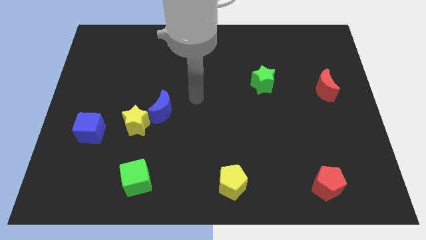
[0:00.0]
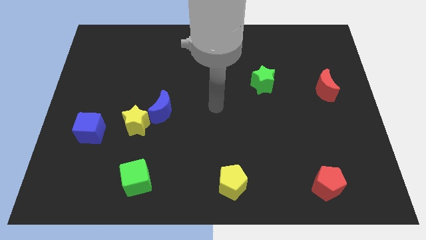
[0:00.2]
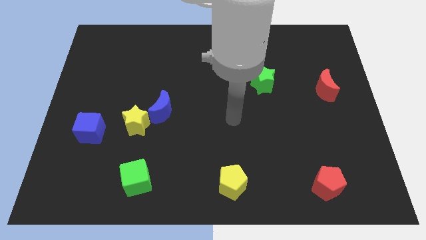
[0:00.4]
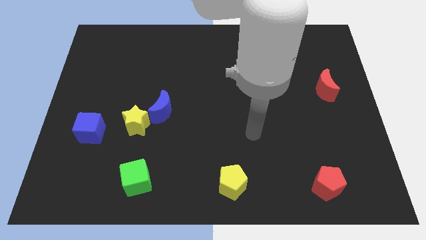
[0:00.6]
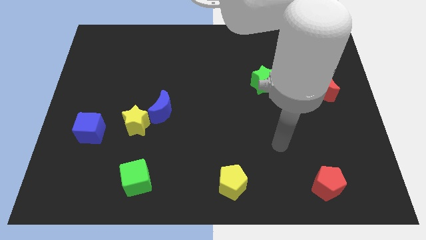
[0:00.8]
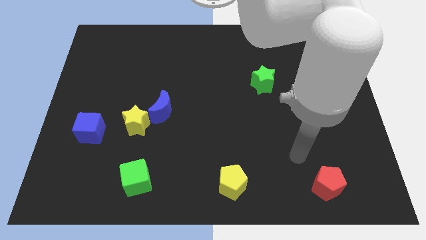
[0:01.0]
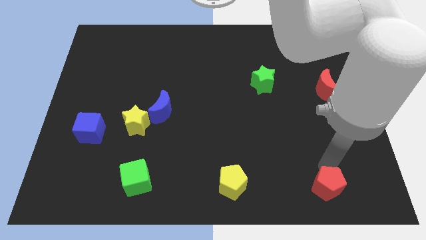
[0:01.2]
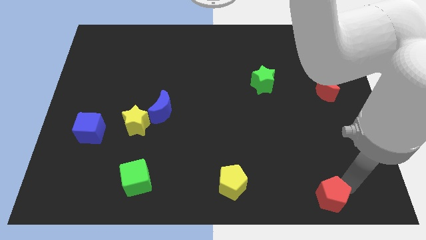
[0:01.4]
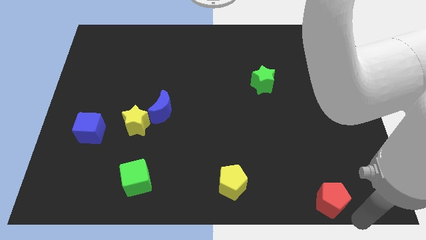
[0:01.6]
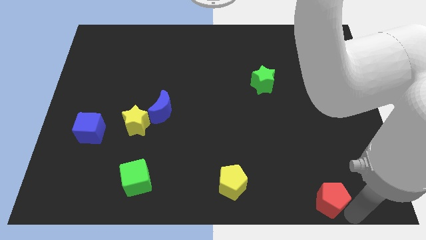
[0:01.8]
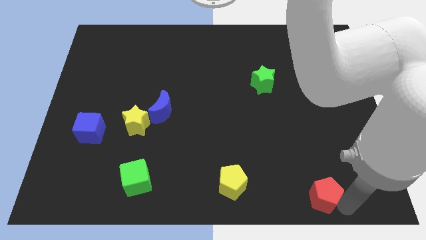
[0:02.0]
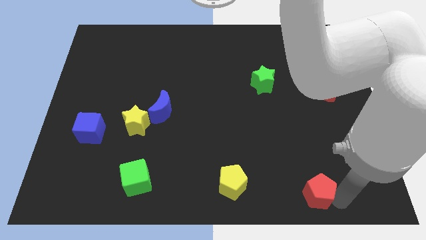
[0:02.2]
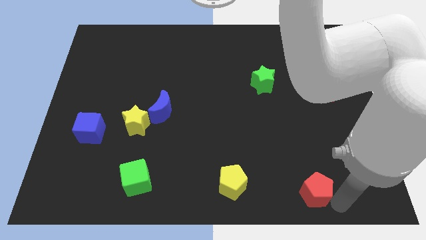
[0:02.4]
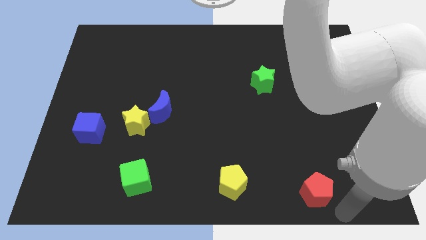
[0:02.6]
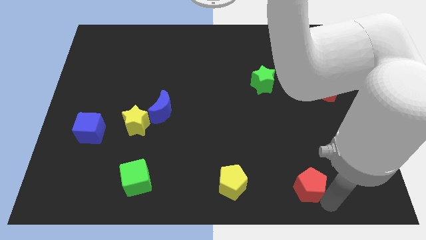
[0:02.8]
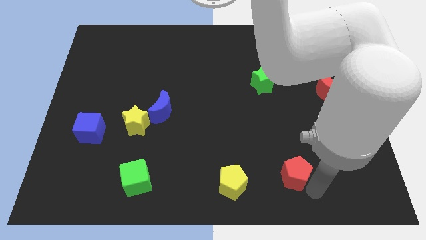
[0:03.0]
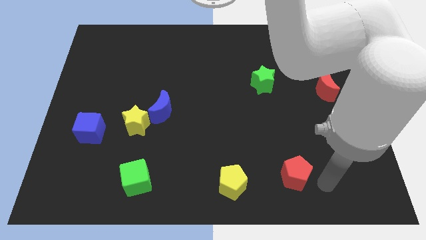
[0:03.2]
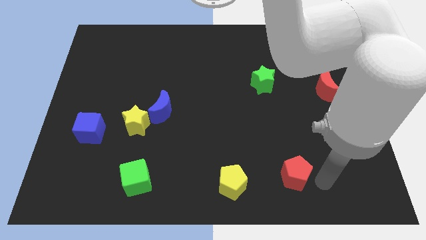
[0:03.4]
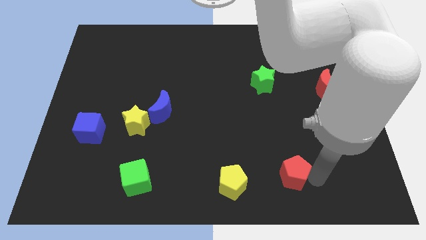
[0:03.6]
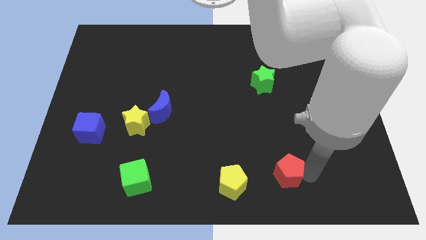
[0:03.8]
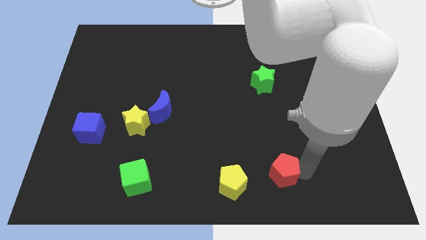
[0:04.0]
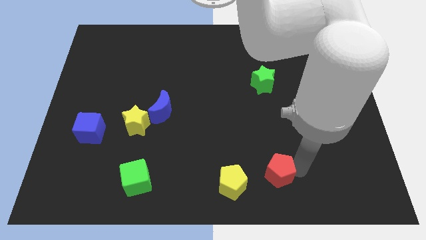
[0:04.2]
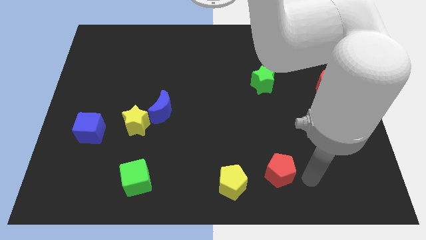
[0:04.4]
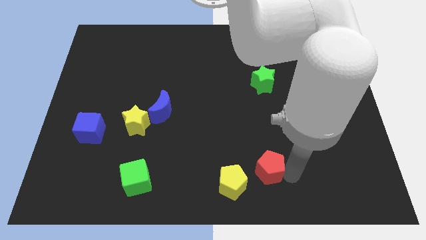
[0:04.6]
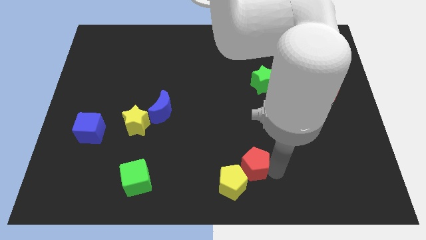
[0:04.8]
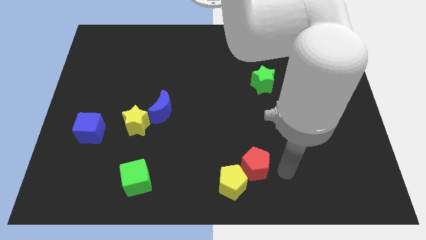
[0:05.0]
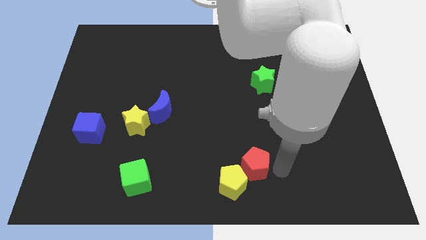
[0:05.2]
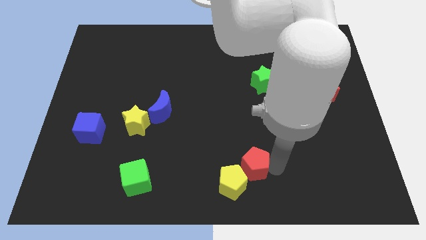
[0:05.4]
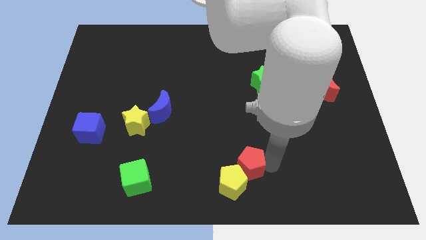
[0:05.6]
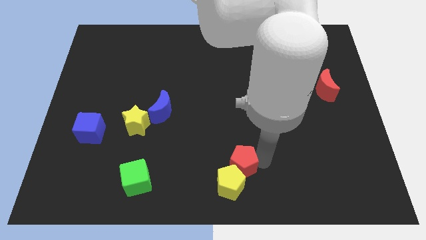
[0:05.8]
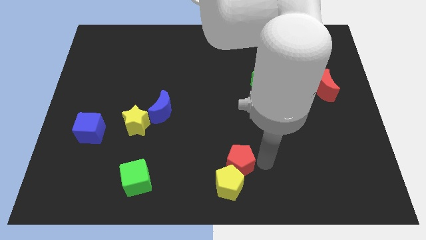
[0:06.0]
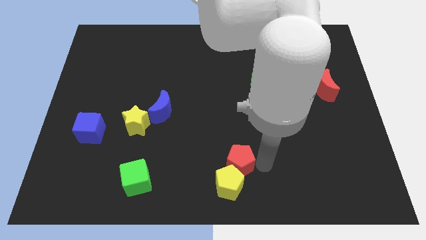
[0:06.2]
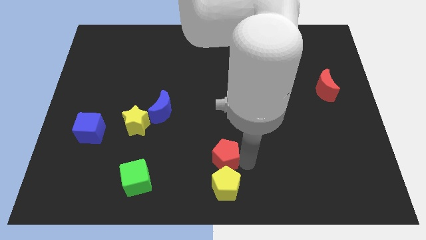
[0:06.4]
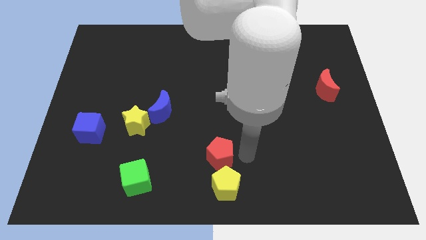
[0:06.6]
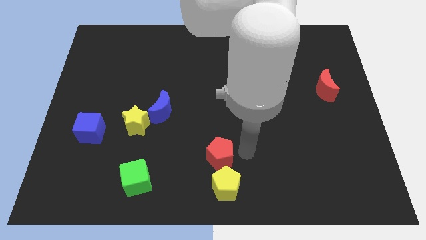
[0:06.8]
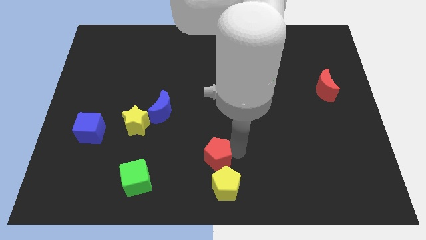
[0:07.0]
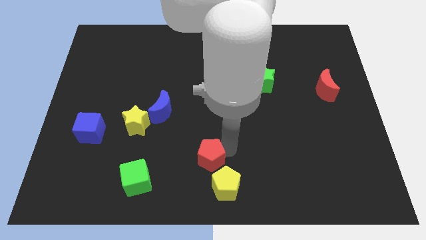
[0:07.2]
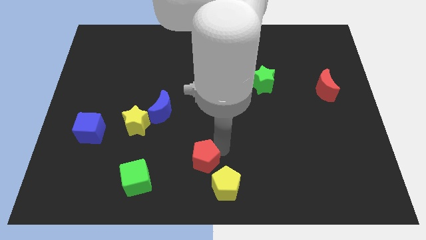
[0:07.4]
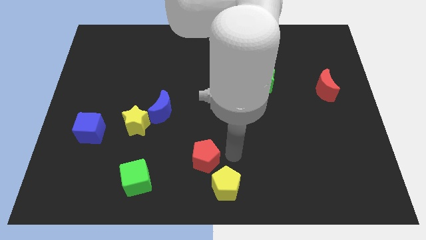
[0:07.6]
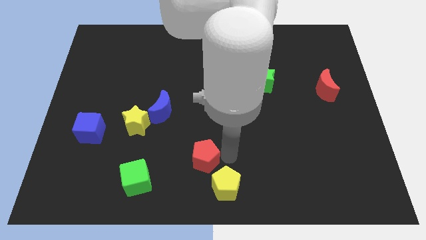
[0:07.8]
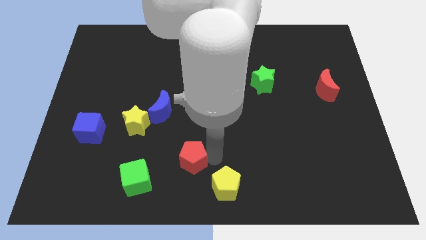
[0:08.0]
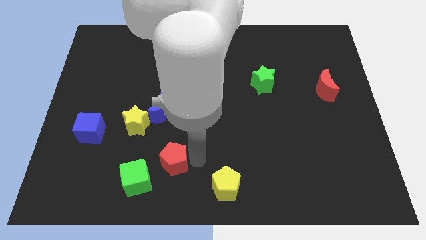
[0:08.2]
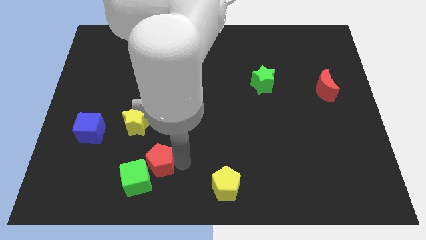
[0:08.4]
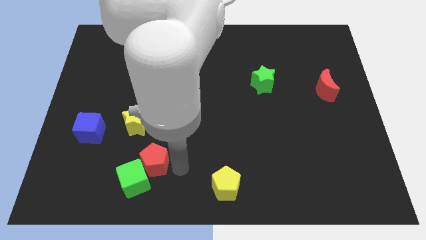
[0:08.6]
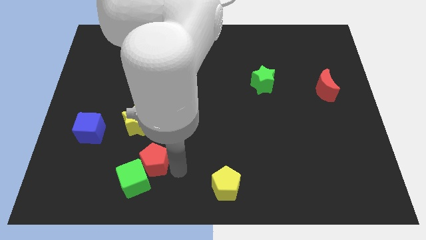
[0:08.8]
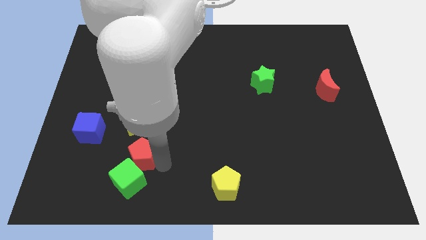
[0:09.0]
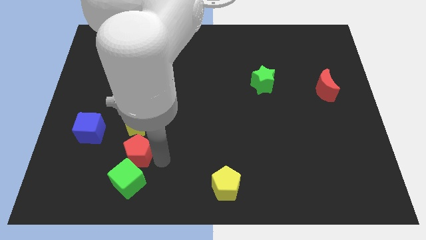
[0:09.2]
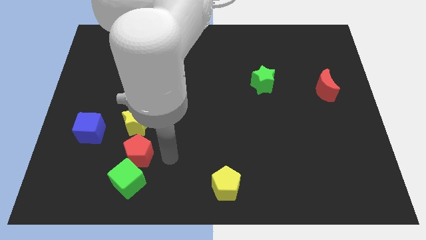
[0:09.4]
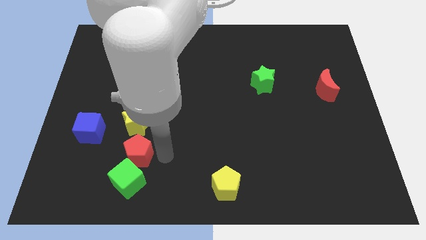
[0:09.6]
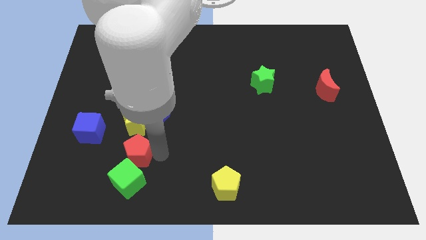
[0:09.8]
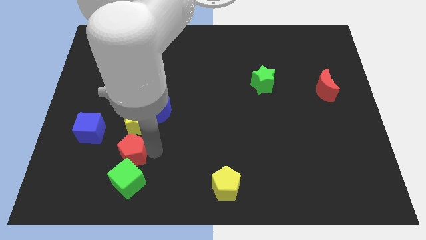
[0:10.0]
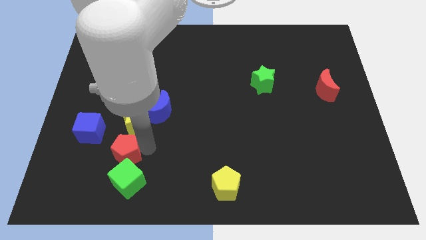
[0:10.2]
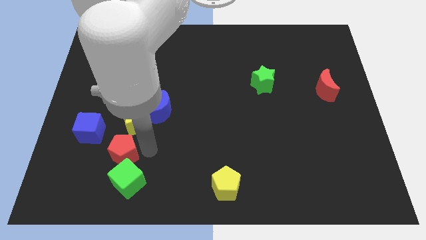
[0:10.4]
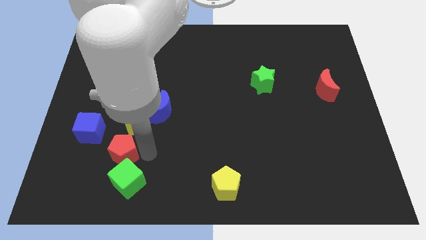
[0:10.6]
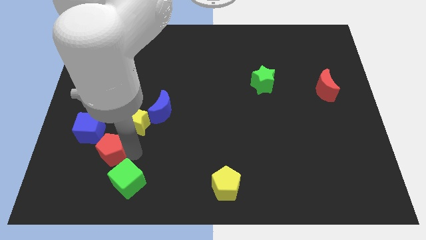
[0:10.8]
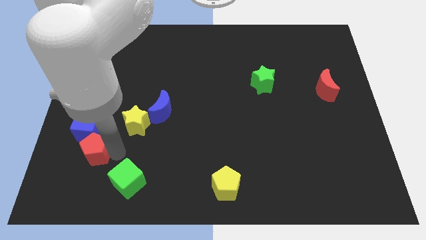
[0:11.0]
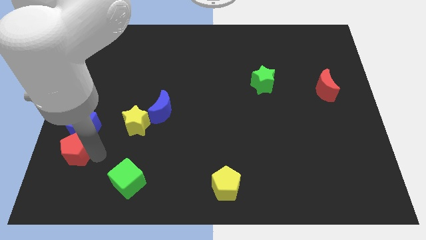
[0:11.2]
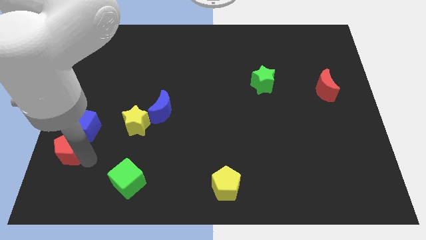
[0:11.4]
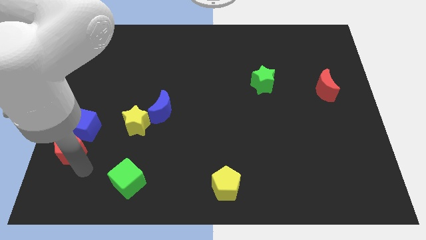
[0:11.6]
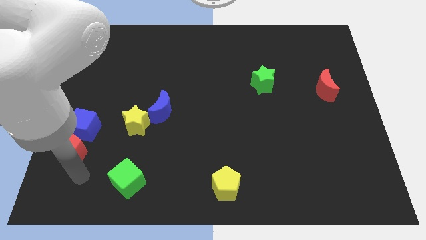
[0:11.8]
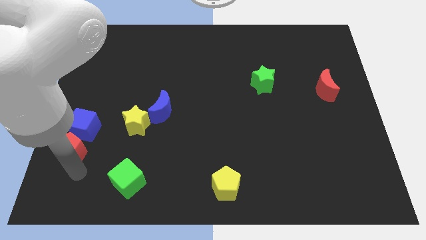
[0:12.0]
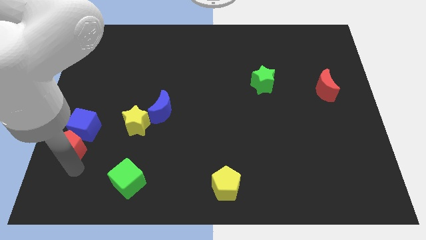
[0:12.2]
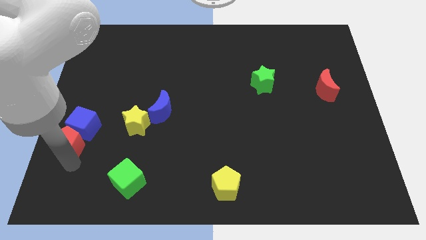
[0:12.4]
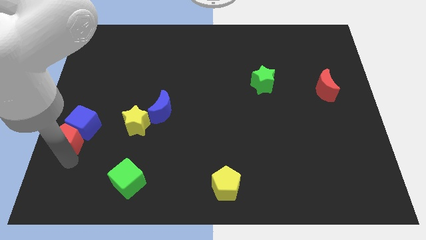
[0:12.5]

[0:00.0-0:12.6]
move the red pentagon to the left side

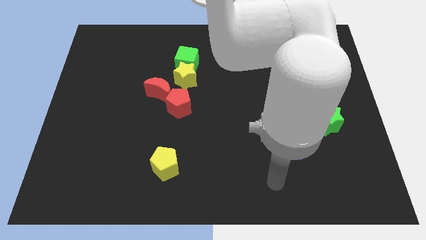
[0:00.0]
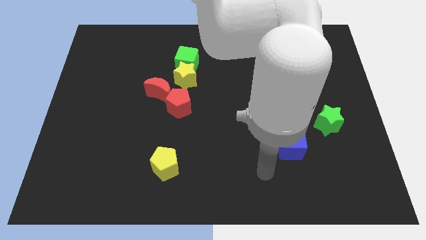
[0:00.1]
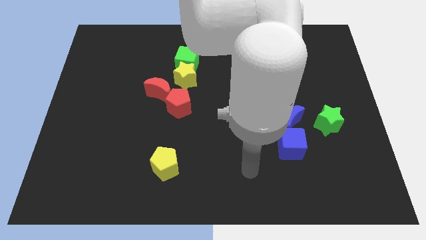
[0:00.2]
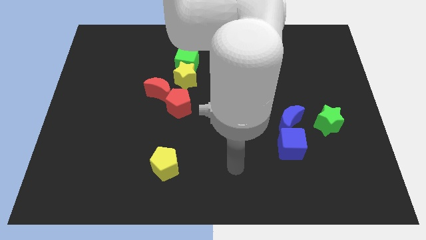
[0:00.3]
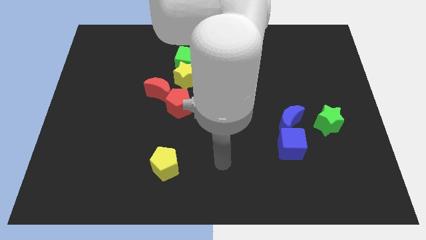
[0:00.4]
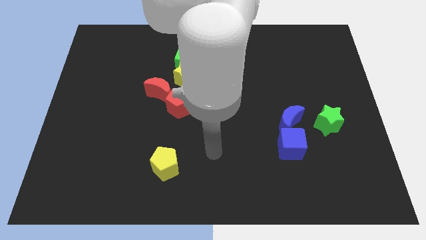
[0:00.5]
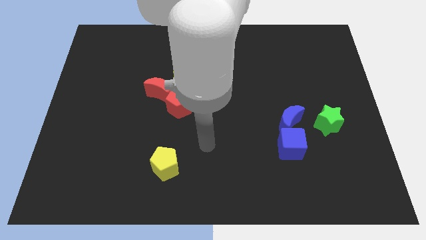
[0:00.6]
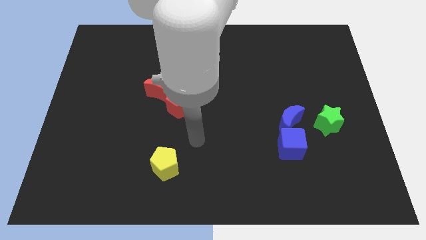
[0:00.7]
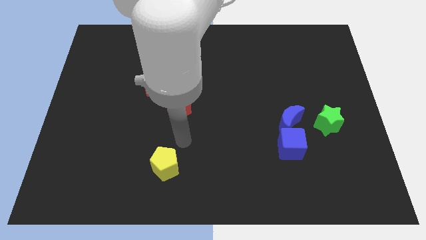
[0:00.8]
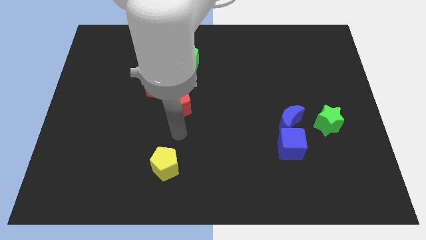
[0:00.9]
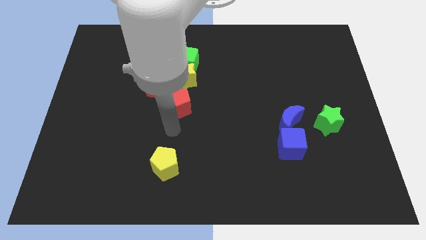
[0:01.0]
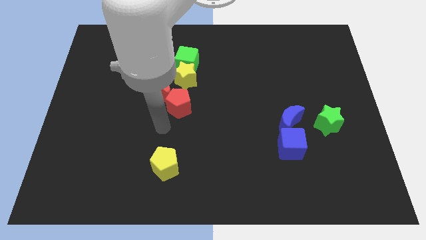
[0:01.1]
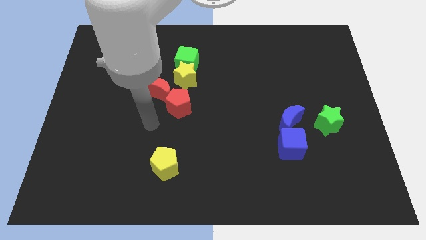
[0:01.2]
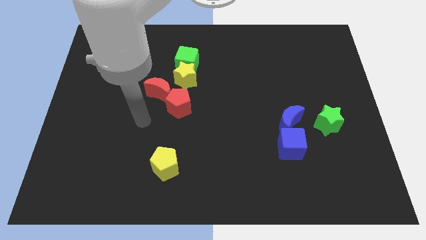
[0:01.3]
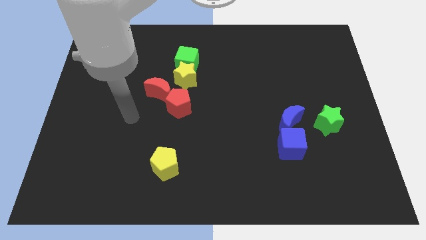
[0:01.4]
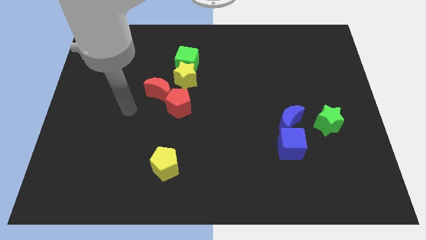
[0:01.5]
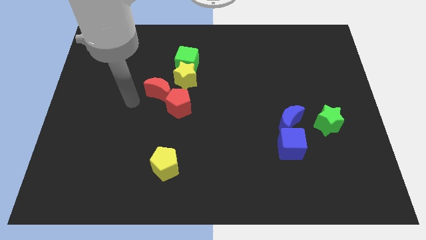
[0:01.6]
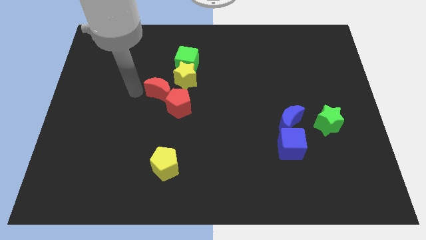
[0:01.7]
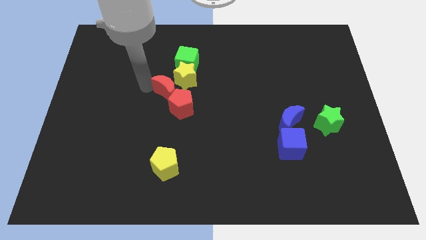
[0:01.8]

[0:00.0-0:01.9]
push the red moon to the middle of the board
